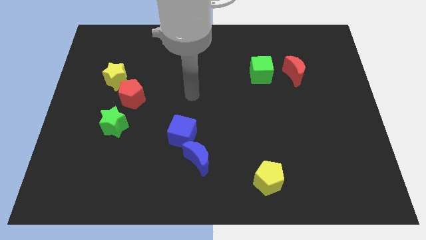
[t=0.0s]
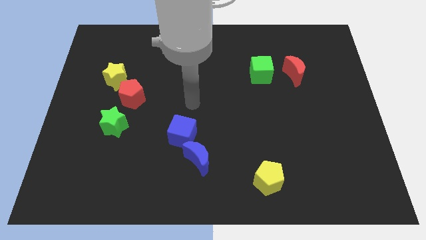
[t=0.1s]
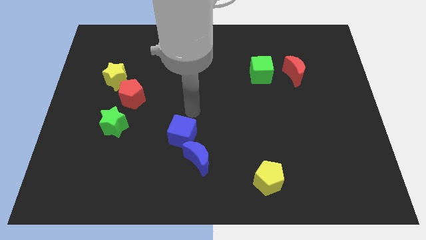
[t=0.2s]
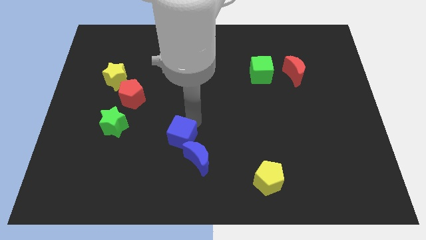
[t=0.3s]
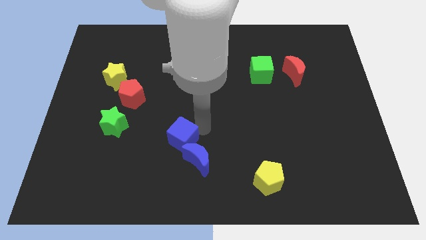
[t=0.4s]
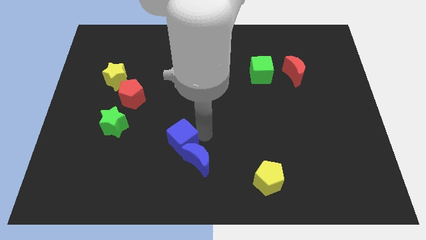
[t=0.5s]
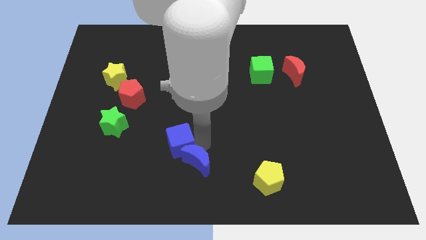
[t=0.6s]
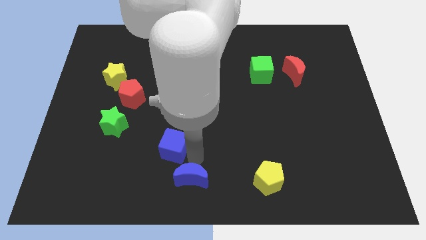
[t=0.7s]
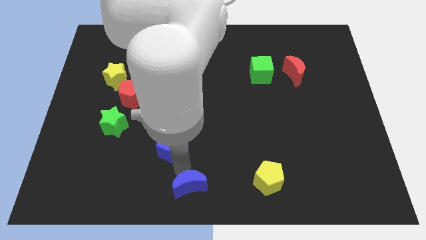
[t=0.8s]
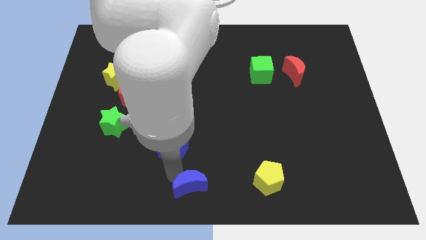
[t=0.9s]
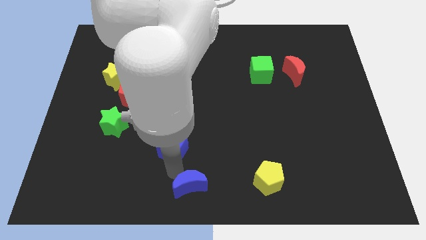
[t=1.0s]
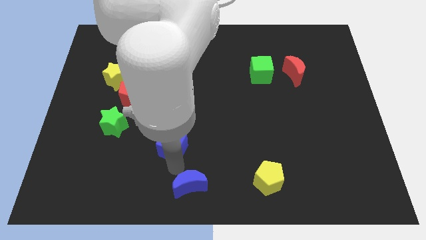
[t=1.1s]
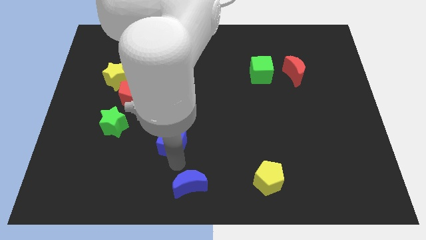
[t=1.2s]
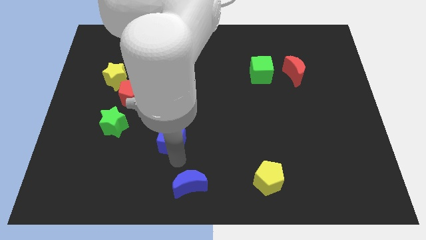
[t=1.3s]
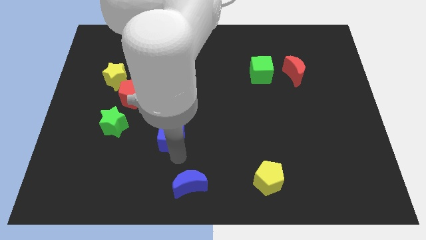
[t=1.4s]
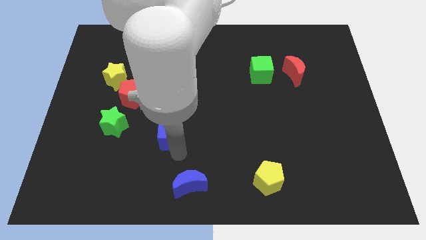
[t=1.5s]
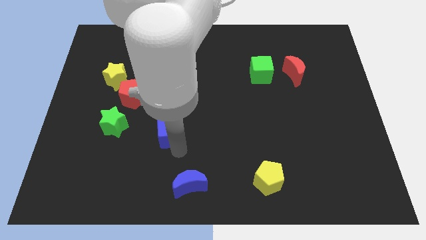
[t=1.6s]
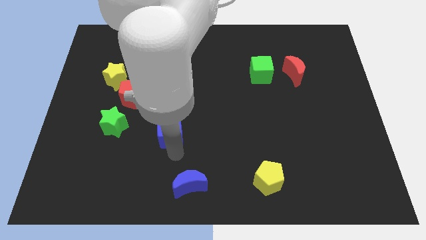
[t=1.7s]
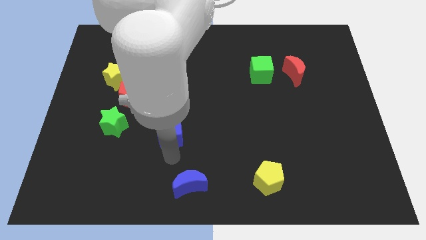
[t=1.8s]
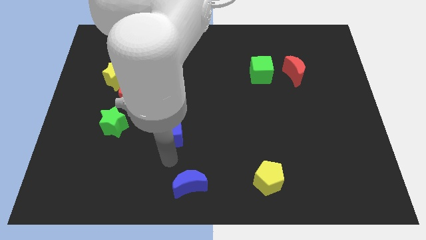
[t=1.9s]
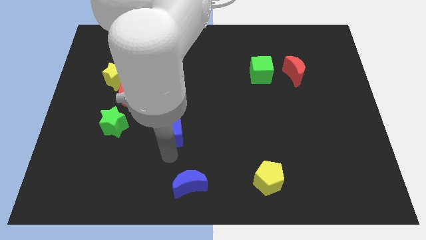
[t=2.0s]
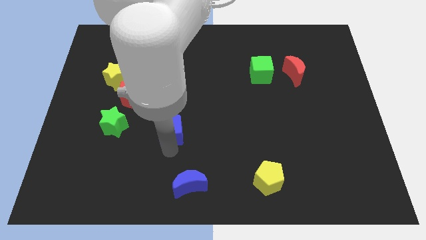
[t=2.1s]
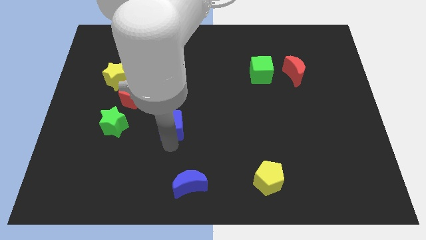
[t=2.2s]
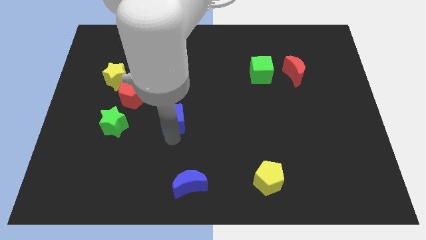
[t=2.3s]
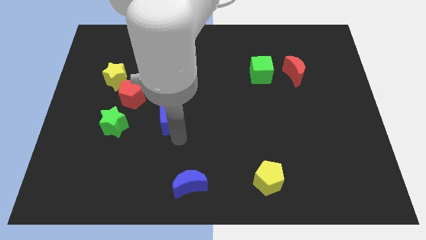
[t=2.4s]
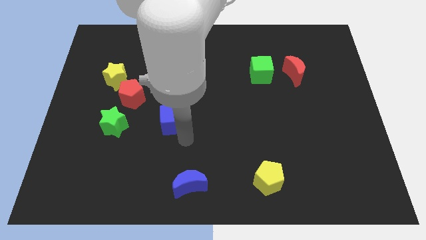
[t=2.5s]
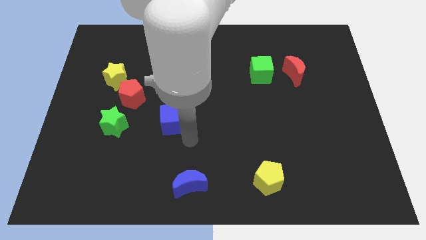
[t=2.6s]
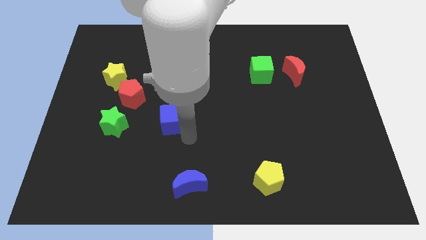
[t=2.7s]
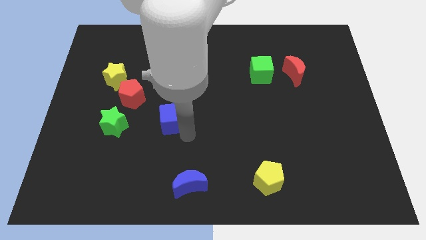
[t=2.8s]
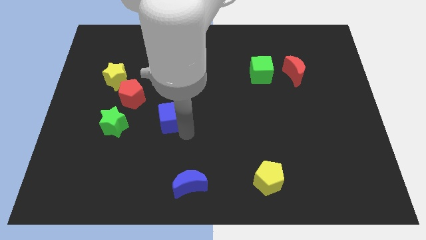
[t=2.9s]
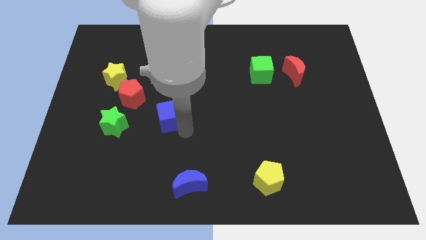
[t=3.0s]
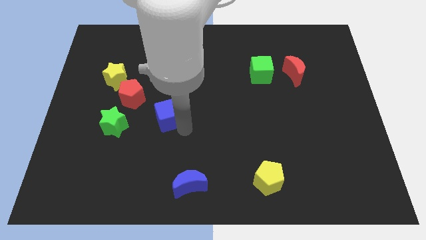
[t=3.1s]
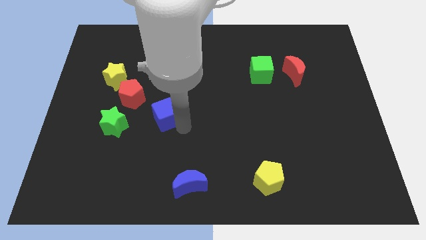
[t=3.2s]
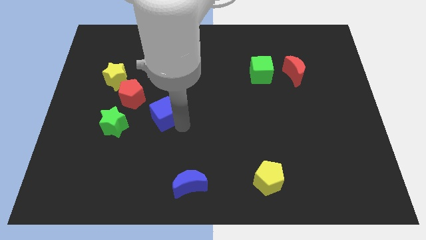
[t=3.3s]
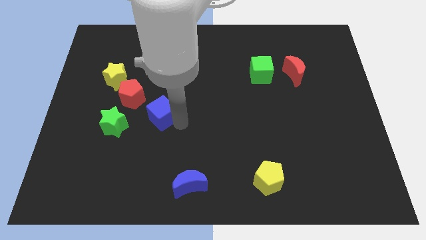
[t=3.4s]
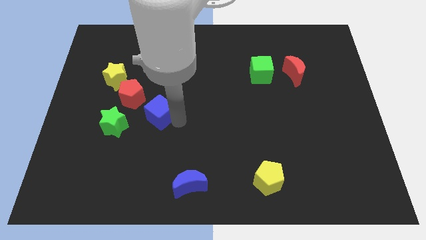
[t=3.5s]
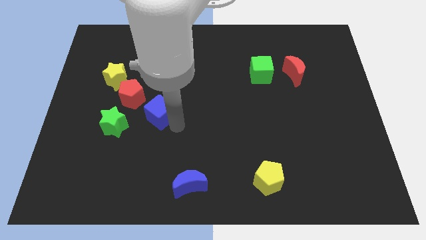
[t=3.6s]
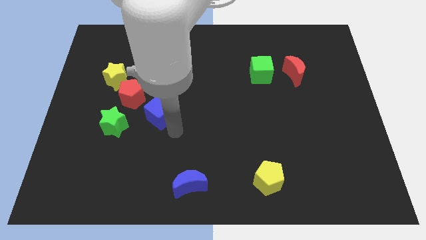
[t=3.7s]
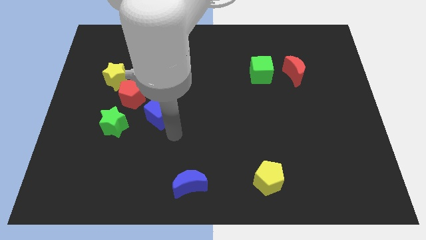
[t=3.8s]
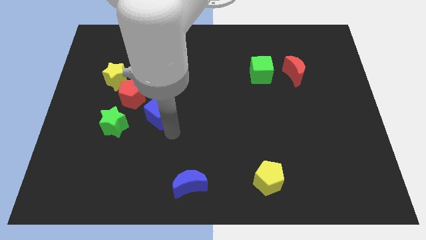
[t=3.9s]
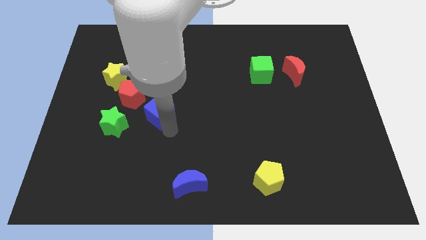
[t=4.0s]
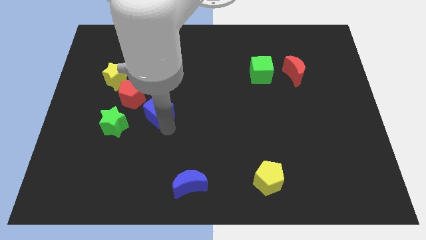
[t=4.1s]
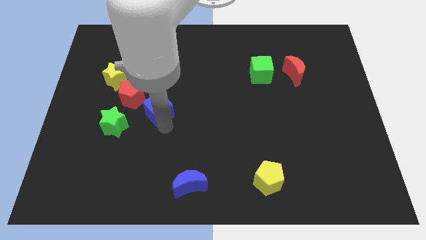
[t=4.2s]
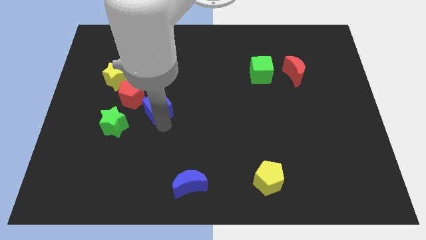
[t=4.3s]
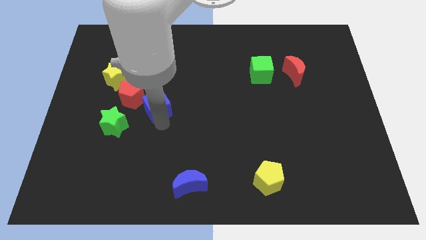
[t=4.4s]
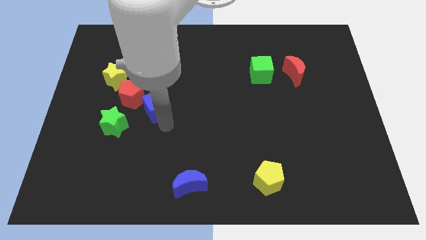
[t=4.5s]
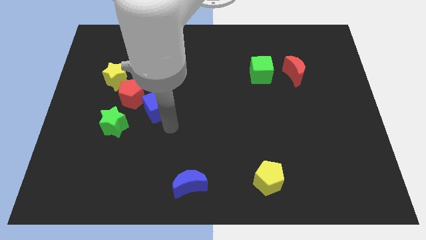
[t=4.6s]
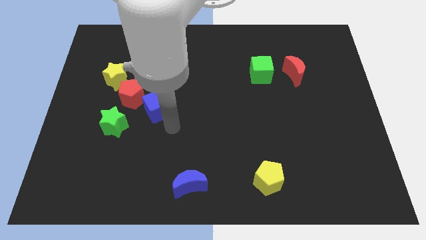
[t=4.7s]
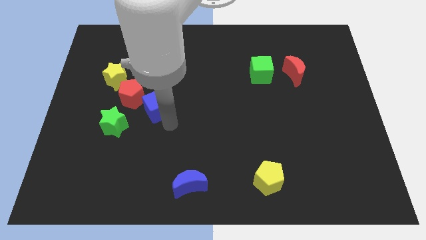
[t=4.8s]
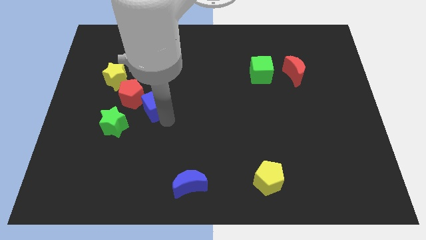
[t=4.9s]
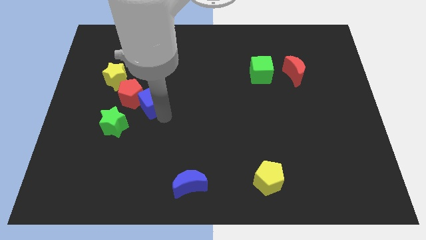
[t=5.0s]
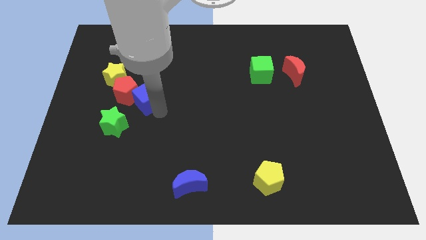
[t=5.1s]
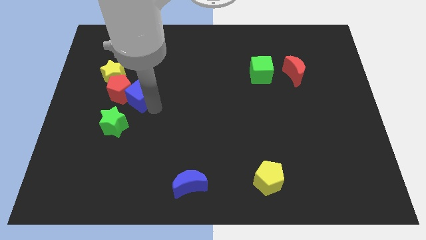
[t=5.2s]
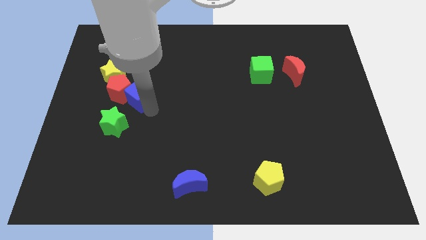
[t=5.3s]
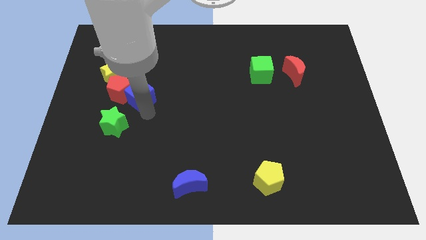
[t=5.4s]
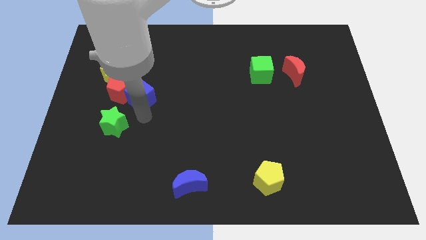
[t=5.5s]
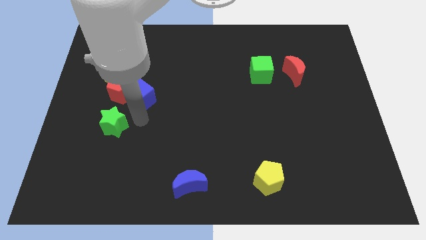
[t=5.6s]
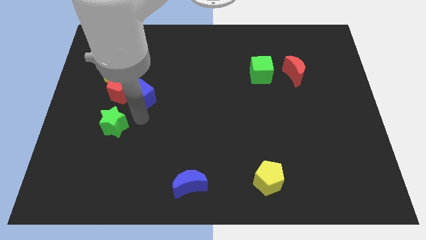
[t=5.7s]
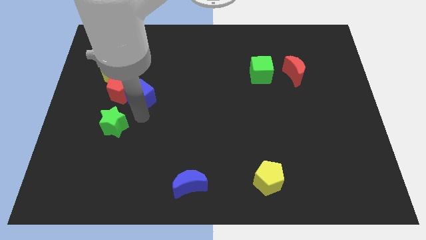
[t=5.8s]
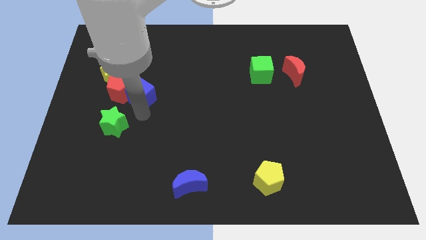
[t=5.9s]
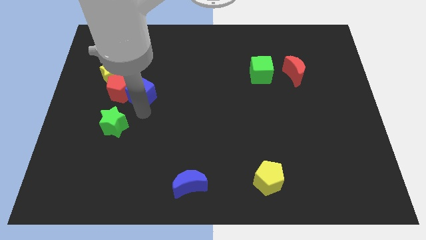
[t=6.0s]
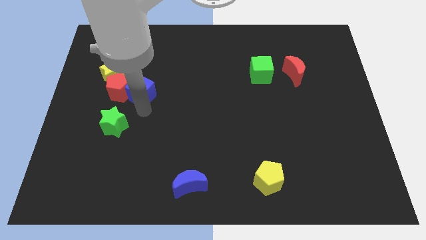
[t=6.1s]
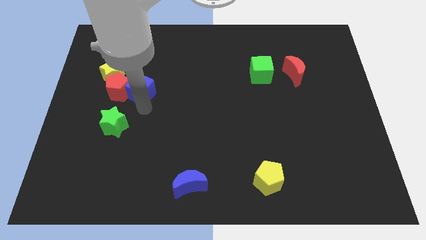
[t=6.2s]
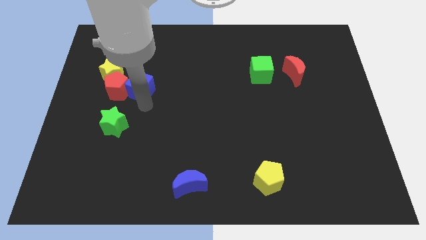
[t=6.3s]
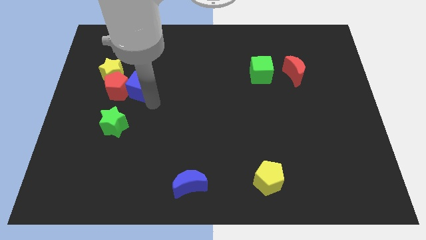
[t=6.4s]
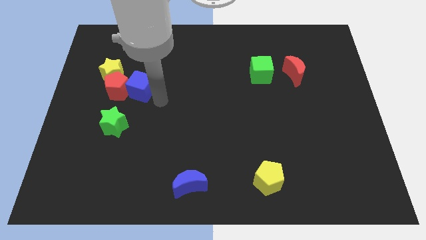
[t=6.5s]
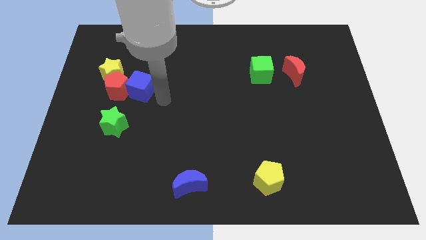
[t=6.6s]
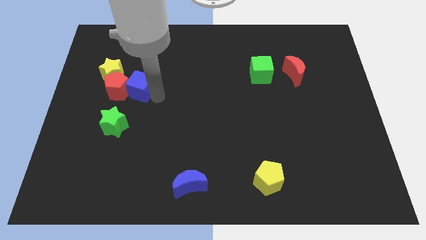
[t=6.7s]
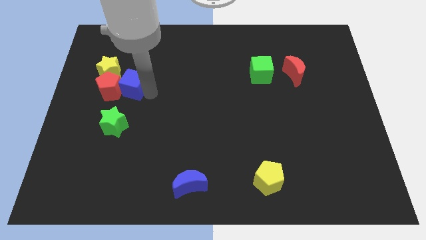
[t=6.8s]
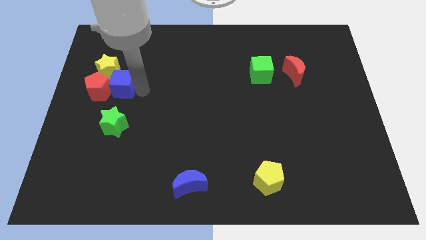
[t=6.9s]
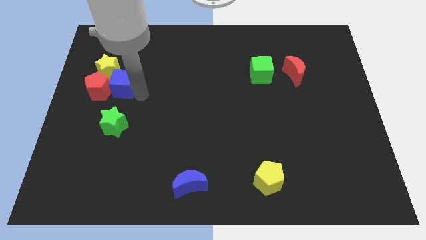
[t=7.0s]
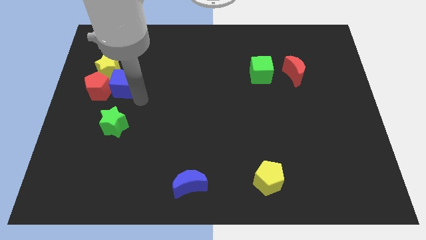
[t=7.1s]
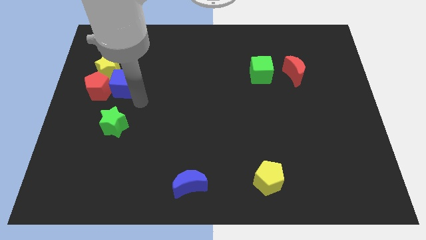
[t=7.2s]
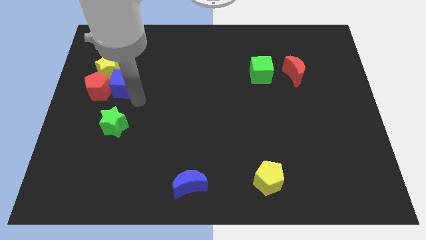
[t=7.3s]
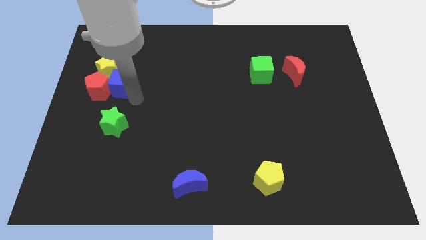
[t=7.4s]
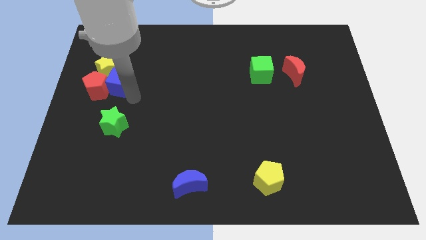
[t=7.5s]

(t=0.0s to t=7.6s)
move the blue cube towards the yellow star
